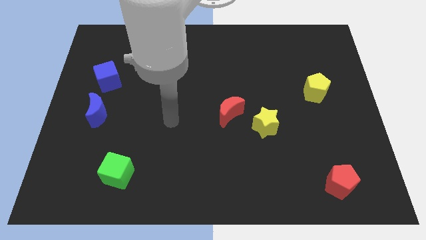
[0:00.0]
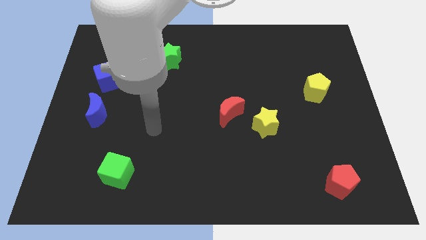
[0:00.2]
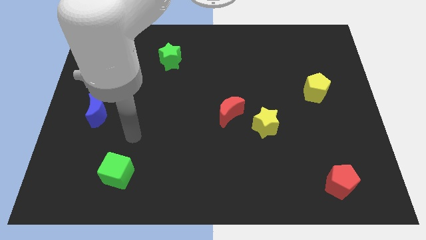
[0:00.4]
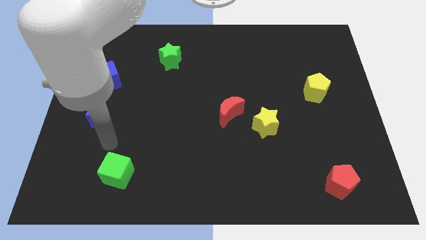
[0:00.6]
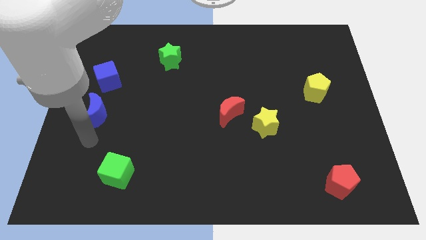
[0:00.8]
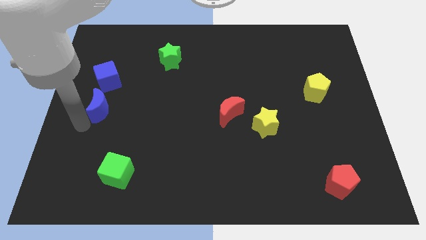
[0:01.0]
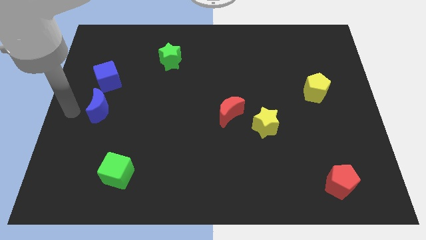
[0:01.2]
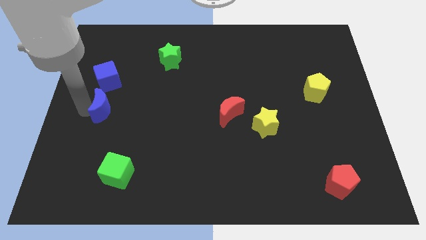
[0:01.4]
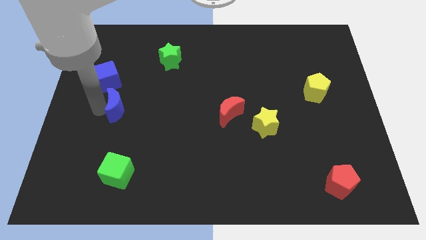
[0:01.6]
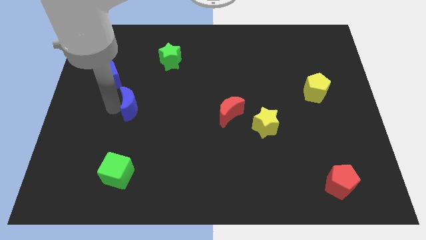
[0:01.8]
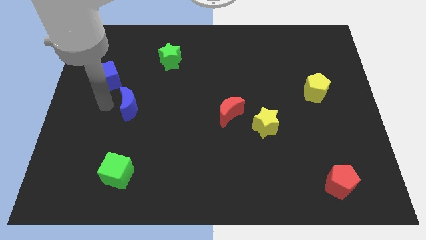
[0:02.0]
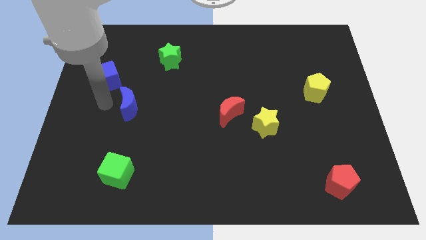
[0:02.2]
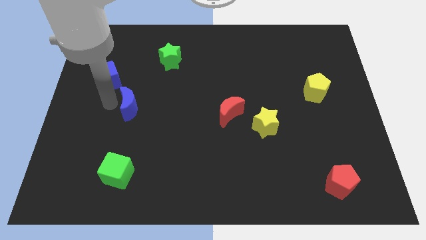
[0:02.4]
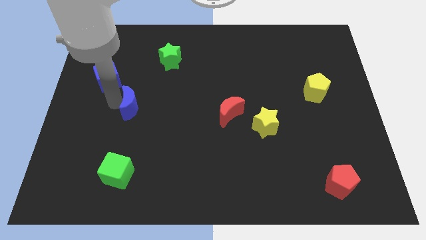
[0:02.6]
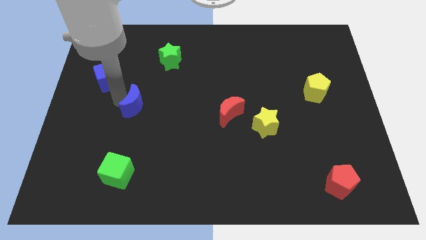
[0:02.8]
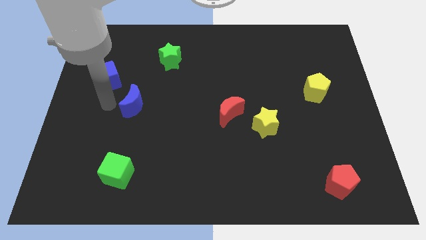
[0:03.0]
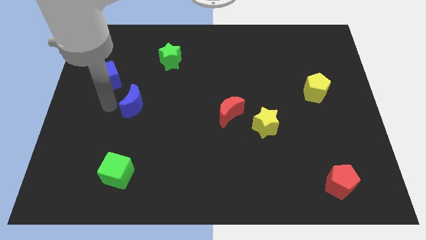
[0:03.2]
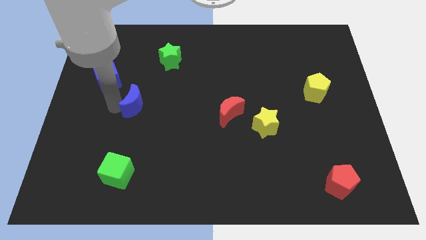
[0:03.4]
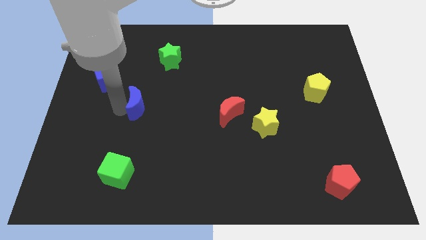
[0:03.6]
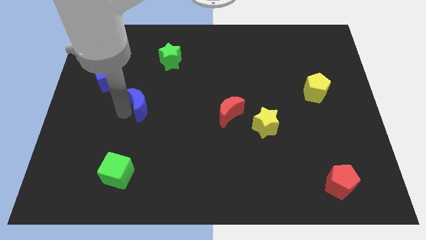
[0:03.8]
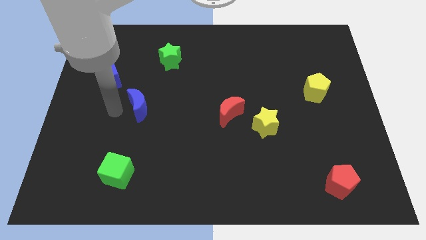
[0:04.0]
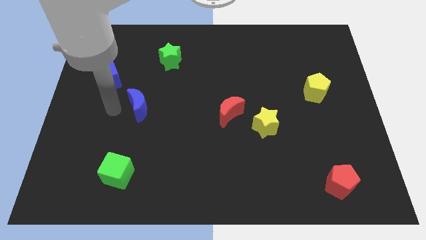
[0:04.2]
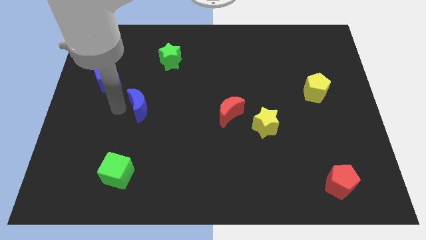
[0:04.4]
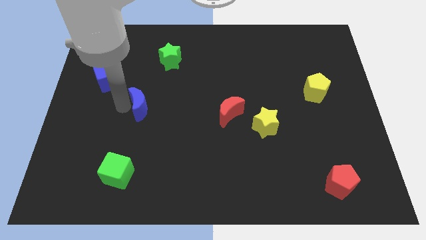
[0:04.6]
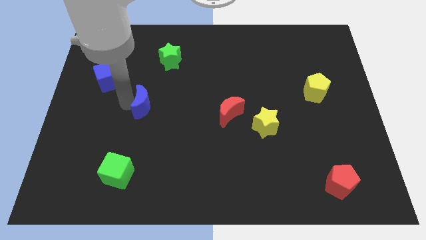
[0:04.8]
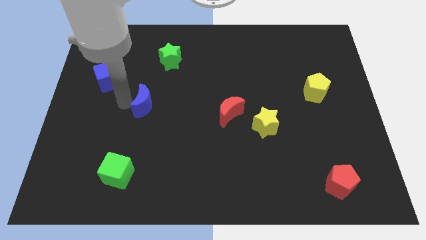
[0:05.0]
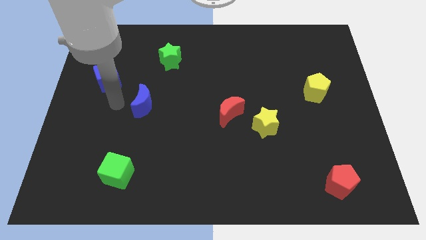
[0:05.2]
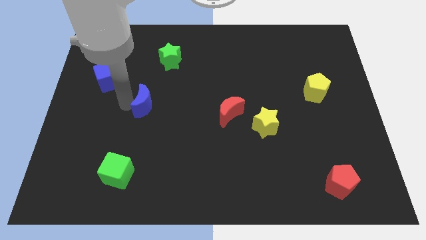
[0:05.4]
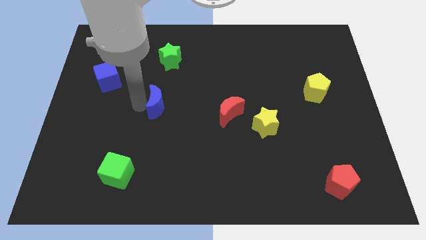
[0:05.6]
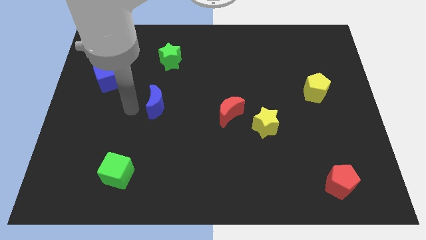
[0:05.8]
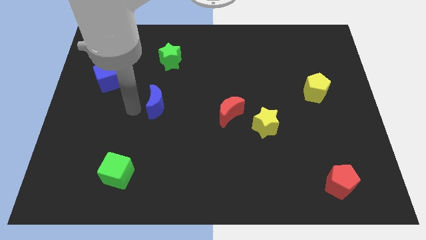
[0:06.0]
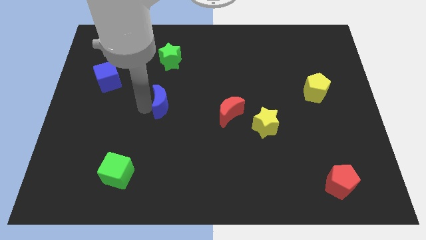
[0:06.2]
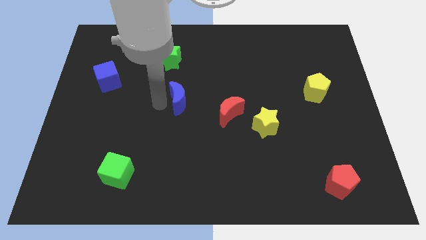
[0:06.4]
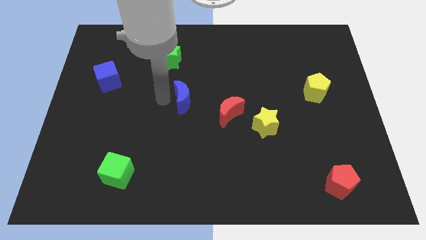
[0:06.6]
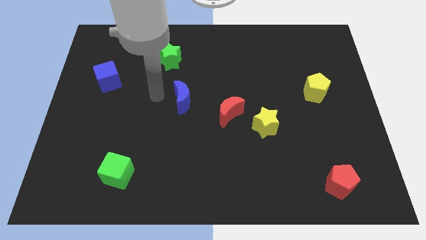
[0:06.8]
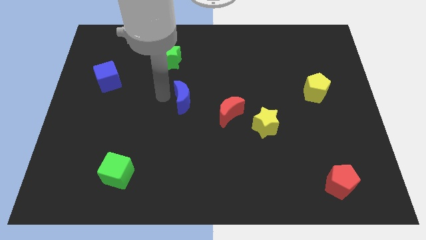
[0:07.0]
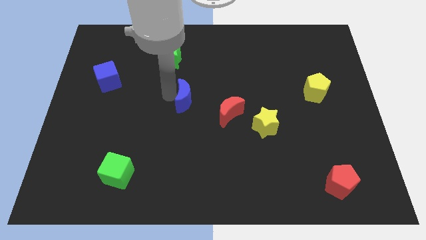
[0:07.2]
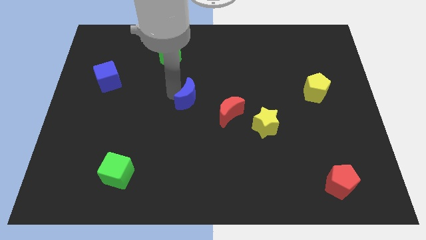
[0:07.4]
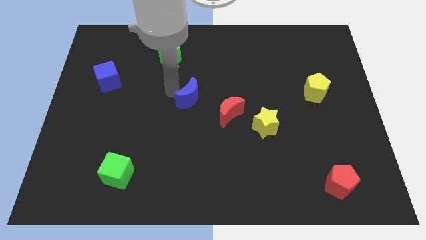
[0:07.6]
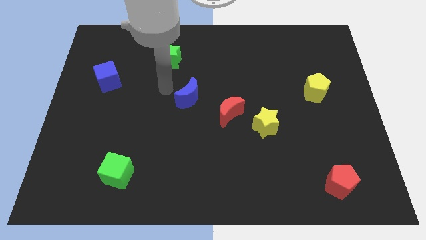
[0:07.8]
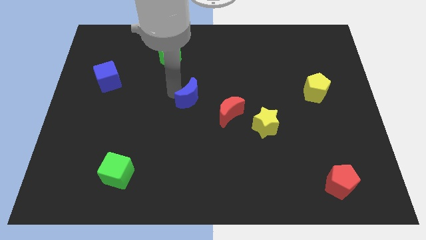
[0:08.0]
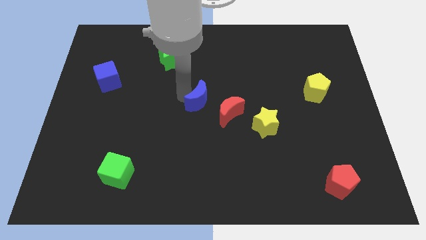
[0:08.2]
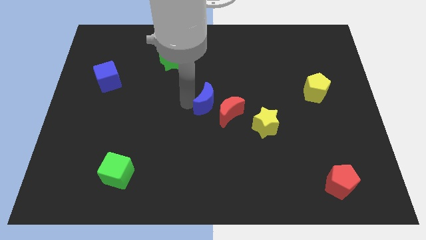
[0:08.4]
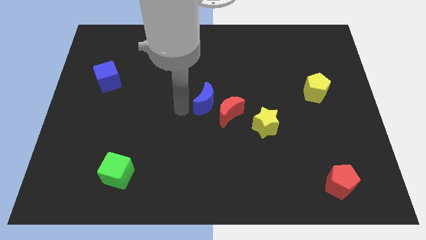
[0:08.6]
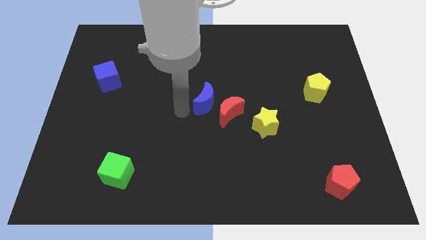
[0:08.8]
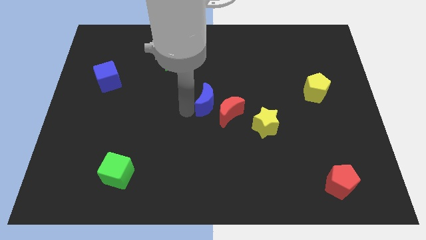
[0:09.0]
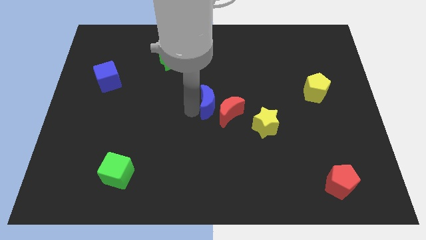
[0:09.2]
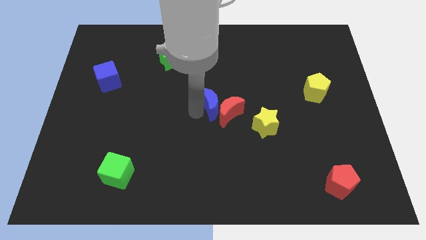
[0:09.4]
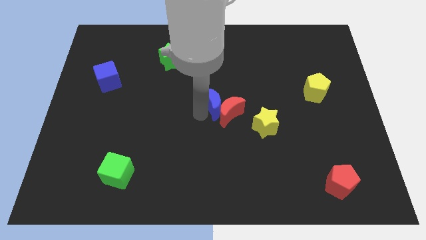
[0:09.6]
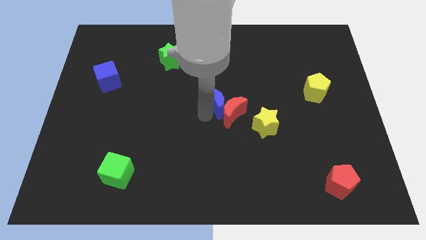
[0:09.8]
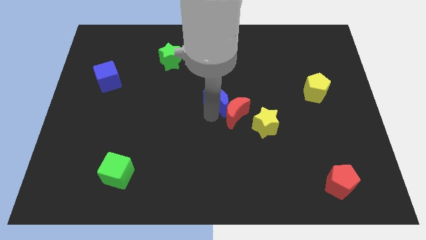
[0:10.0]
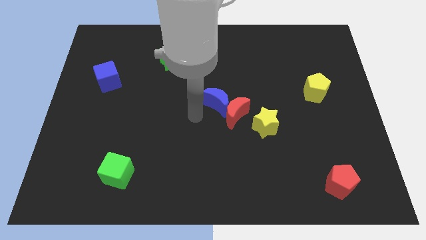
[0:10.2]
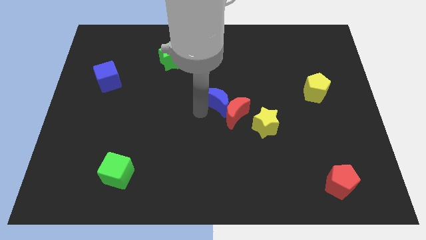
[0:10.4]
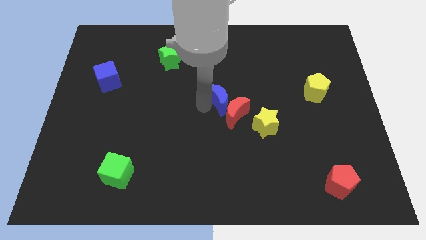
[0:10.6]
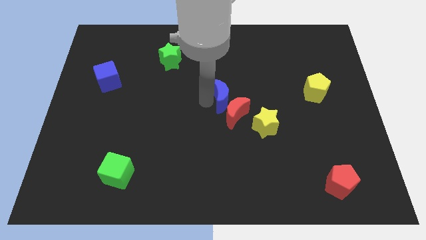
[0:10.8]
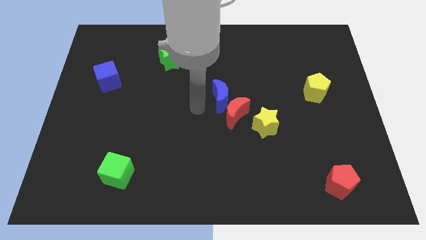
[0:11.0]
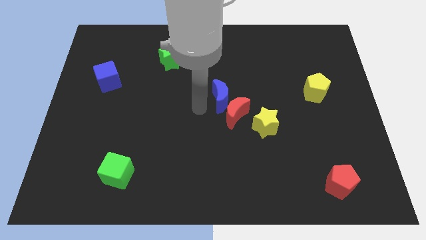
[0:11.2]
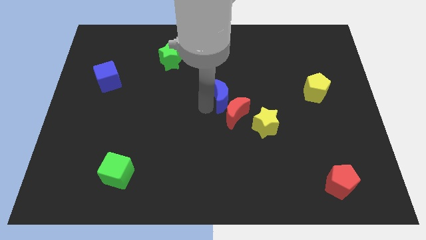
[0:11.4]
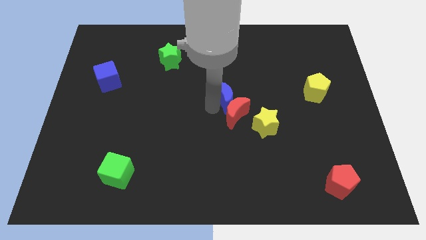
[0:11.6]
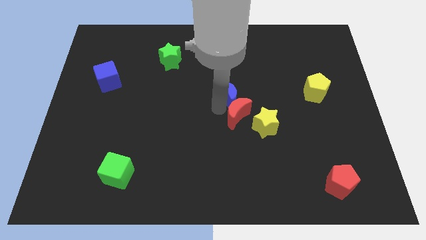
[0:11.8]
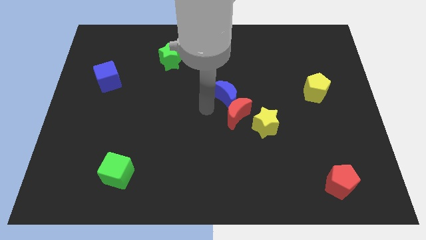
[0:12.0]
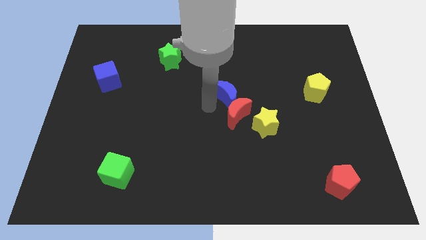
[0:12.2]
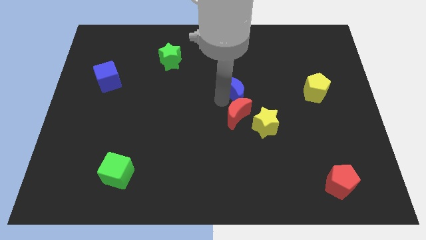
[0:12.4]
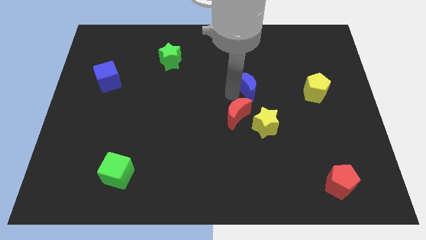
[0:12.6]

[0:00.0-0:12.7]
put the blue moon above the yellow star

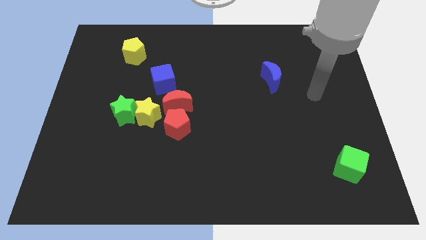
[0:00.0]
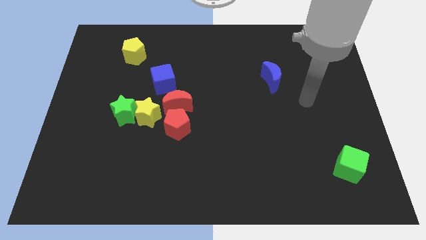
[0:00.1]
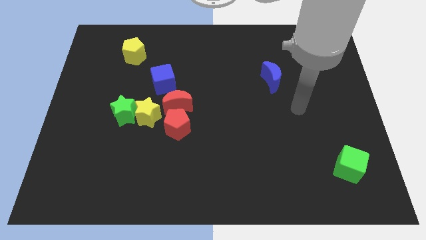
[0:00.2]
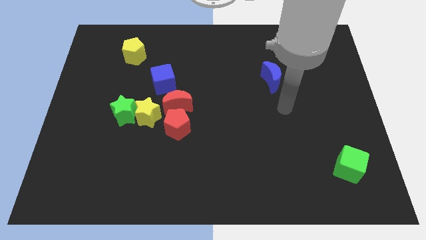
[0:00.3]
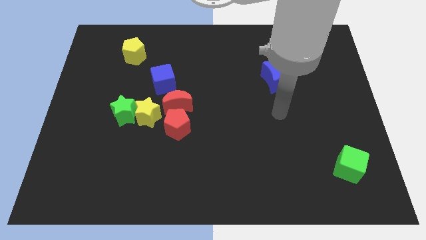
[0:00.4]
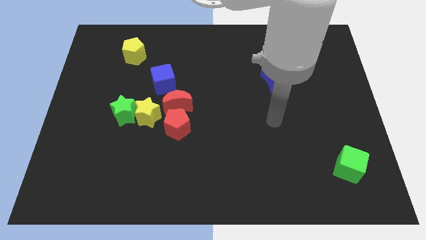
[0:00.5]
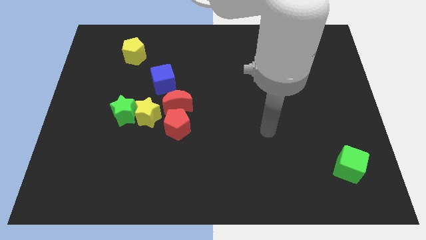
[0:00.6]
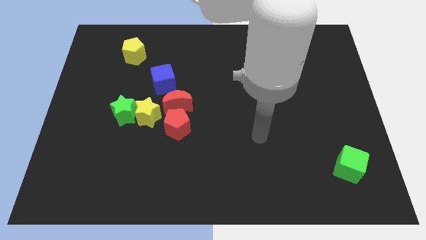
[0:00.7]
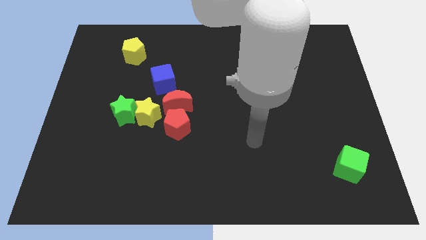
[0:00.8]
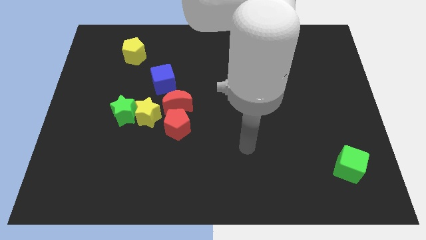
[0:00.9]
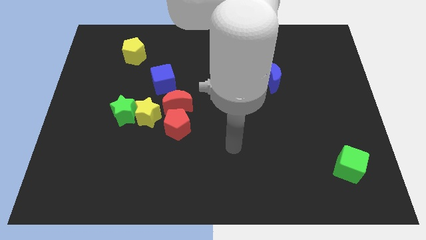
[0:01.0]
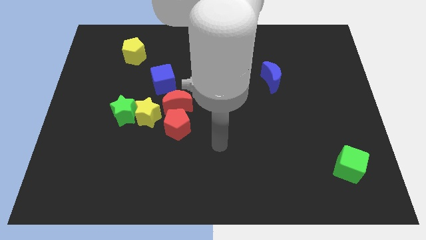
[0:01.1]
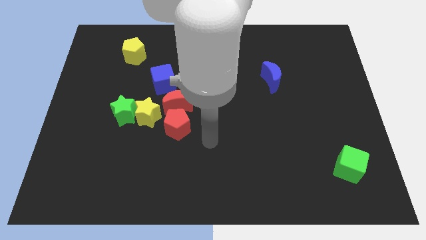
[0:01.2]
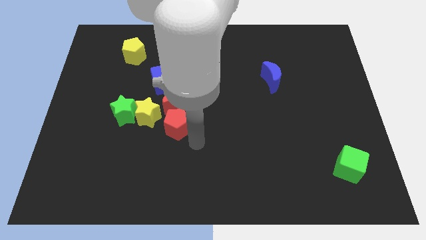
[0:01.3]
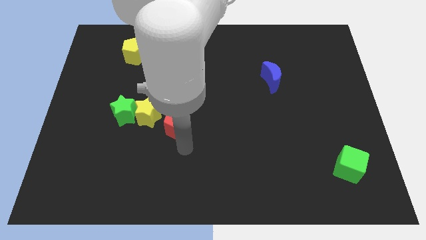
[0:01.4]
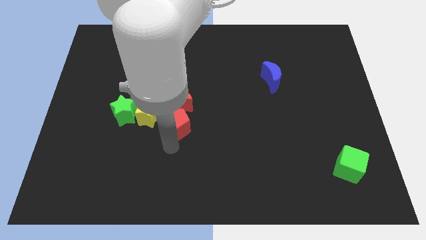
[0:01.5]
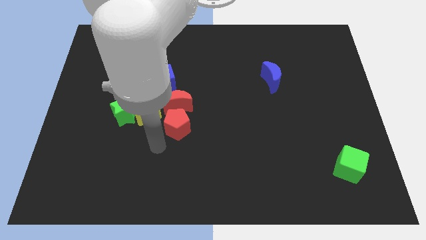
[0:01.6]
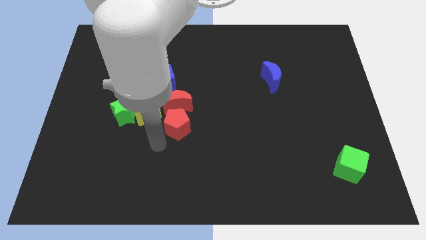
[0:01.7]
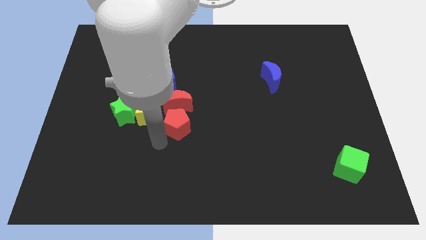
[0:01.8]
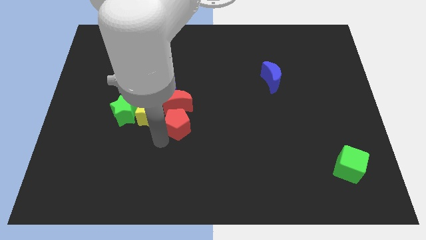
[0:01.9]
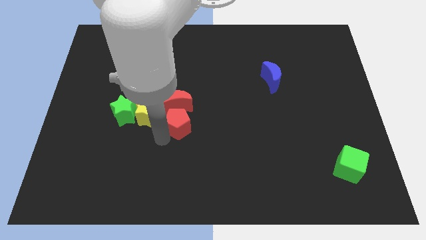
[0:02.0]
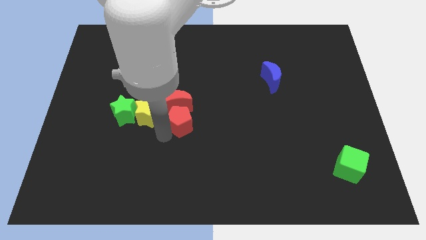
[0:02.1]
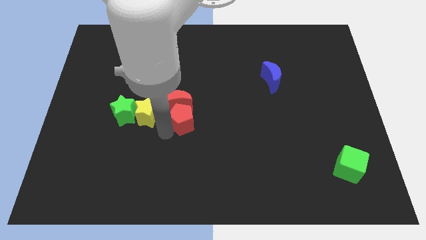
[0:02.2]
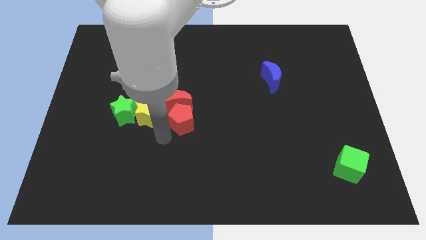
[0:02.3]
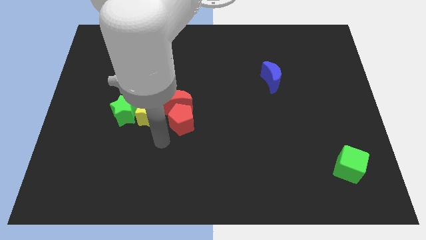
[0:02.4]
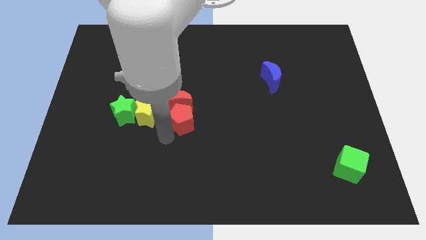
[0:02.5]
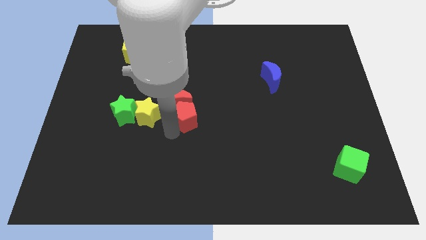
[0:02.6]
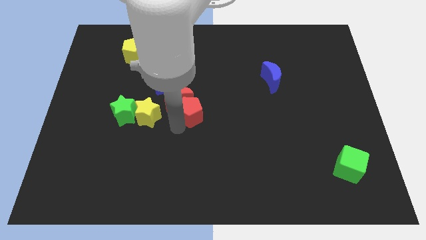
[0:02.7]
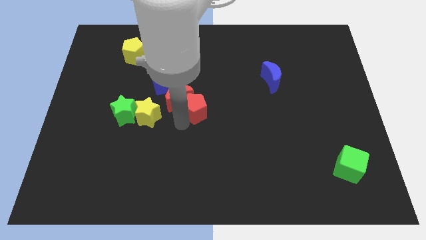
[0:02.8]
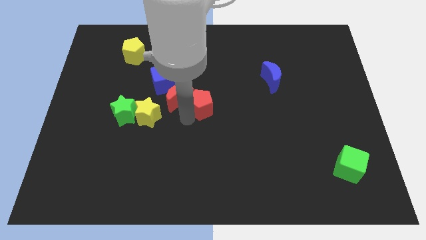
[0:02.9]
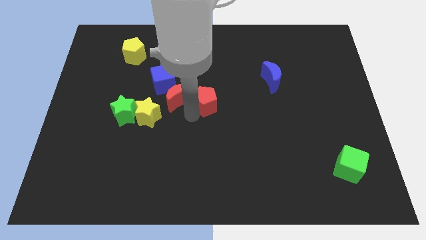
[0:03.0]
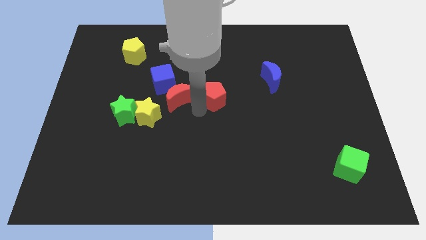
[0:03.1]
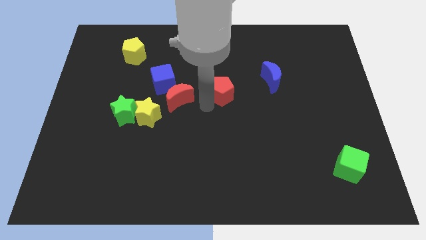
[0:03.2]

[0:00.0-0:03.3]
put the red pentagon just left of the blue moon
